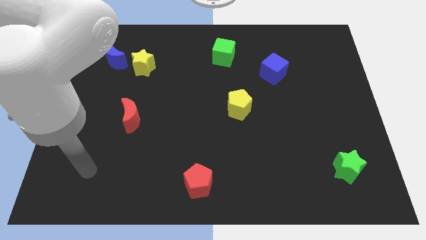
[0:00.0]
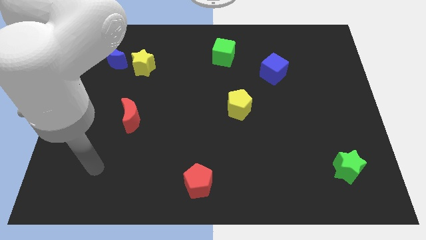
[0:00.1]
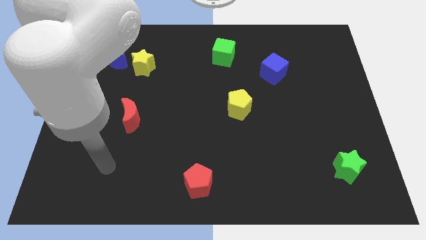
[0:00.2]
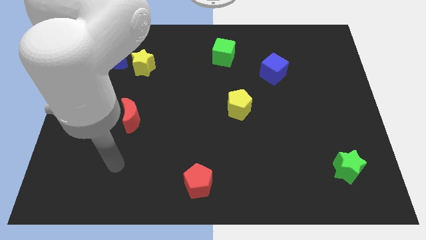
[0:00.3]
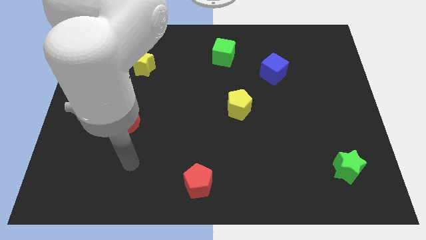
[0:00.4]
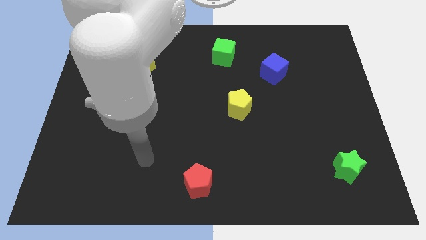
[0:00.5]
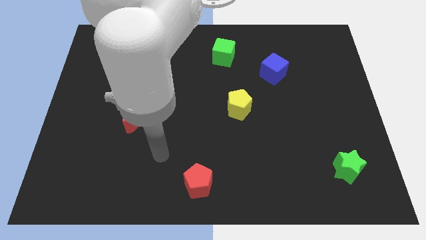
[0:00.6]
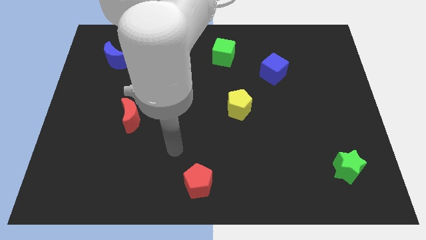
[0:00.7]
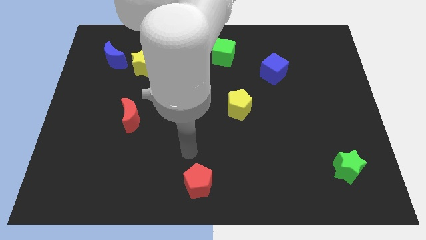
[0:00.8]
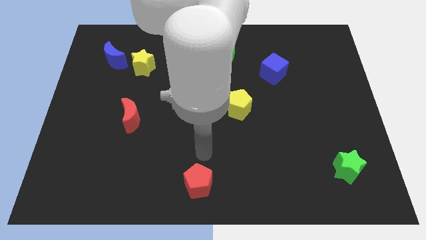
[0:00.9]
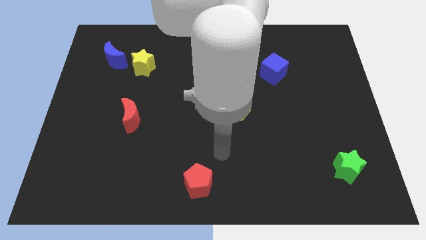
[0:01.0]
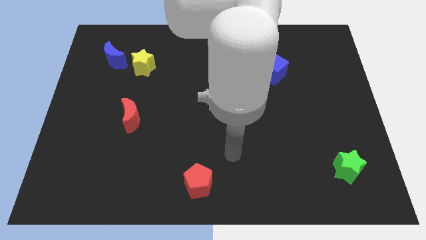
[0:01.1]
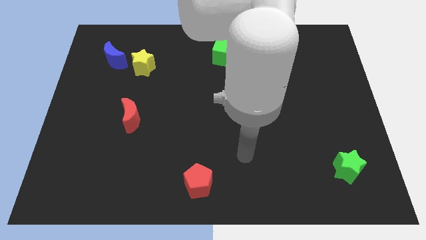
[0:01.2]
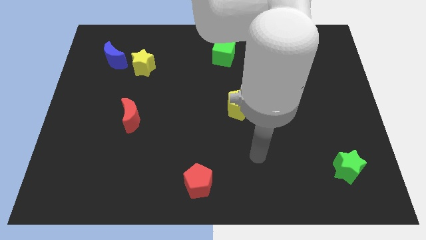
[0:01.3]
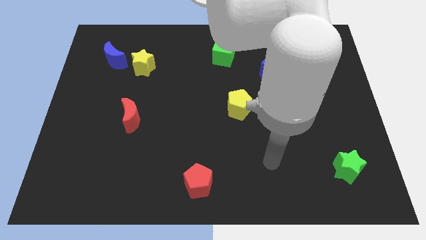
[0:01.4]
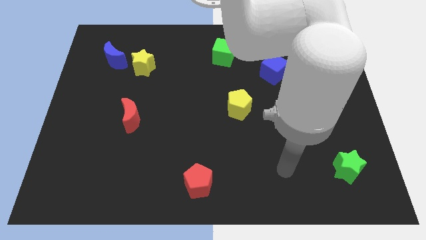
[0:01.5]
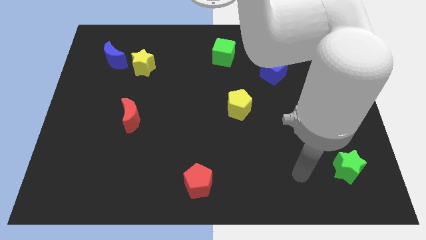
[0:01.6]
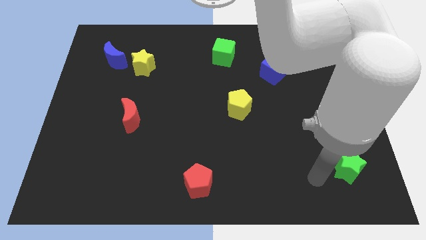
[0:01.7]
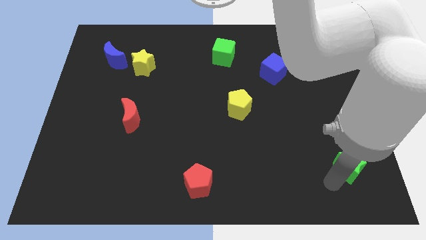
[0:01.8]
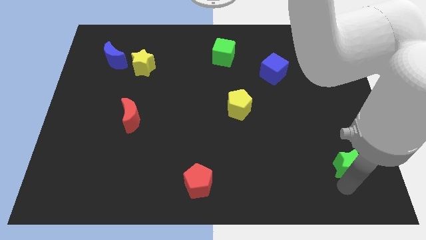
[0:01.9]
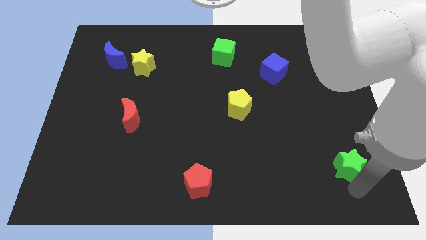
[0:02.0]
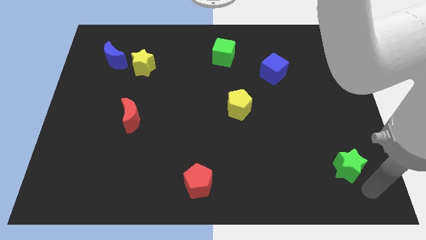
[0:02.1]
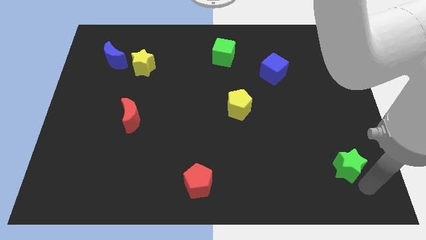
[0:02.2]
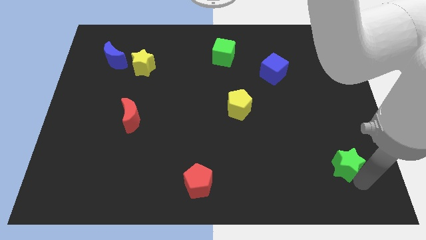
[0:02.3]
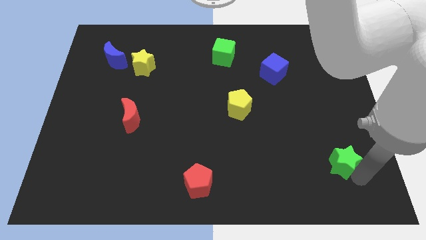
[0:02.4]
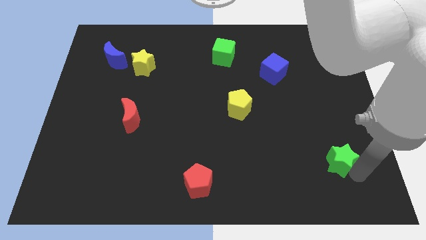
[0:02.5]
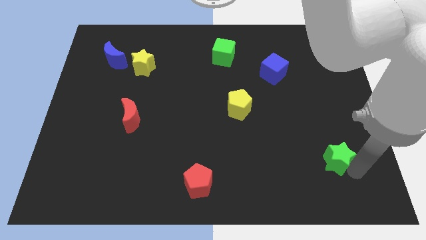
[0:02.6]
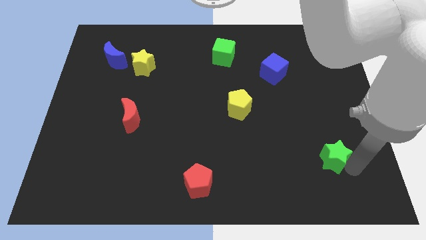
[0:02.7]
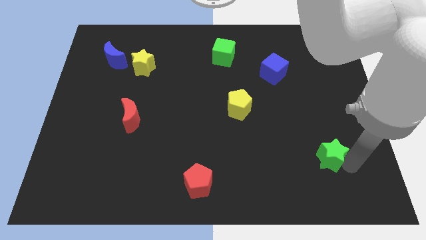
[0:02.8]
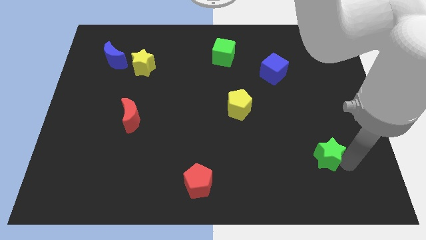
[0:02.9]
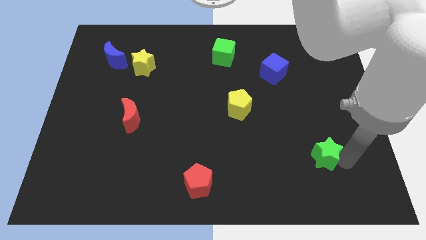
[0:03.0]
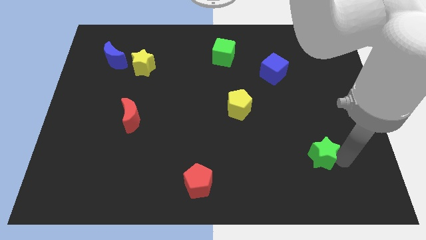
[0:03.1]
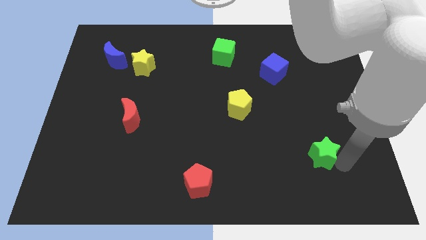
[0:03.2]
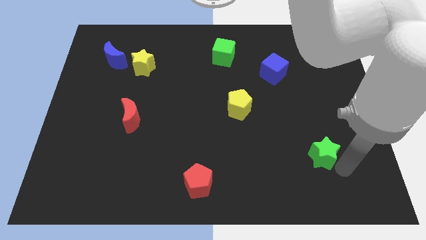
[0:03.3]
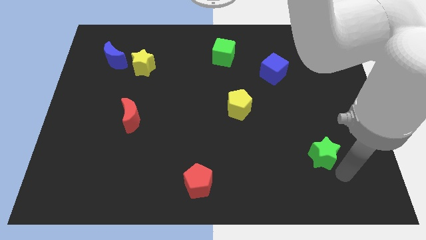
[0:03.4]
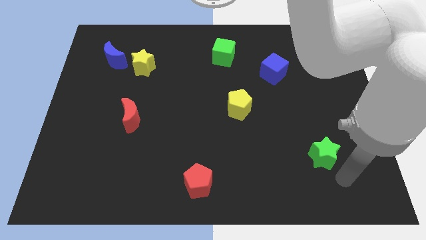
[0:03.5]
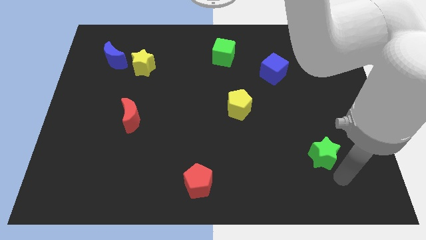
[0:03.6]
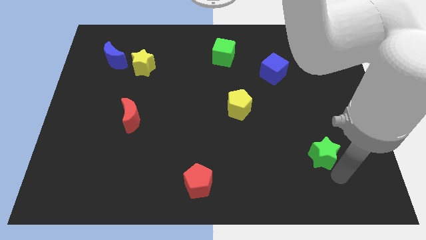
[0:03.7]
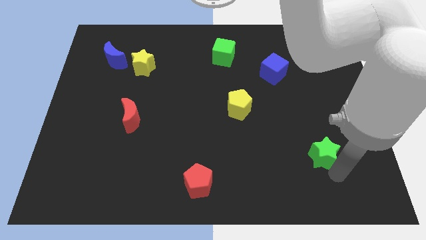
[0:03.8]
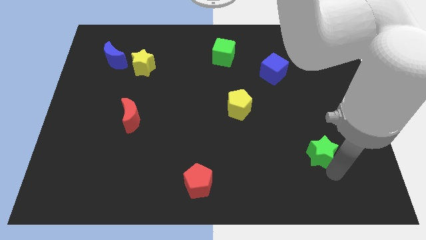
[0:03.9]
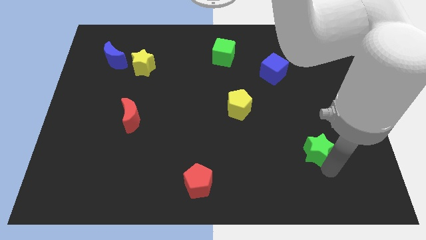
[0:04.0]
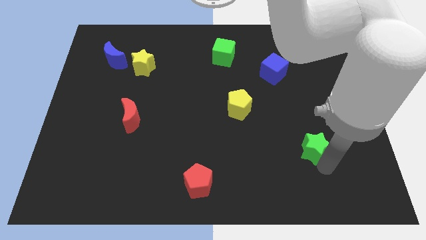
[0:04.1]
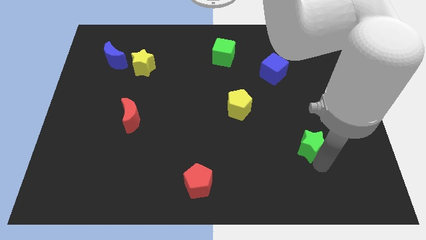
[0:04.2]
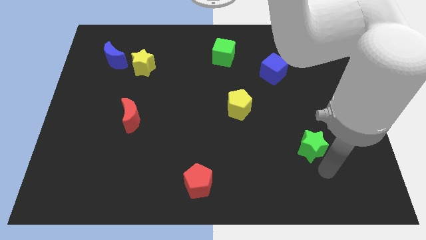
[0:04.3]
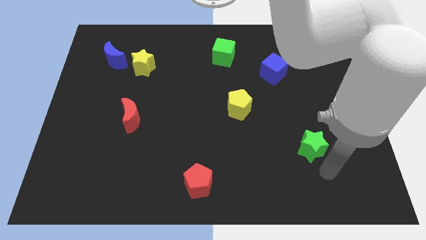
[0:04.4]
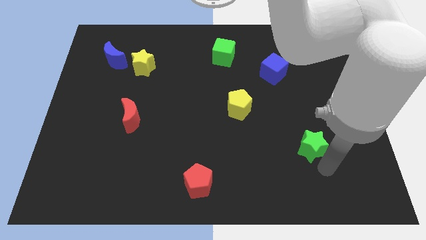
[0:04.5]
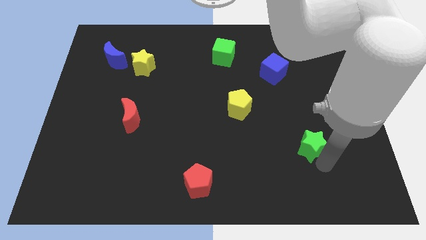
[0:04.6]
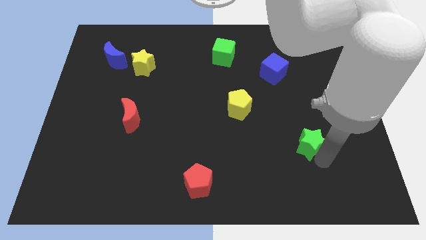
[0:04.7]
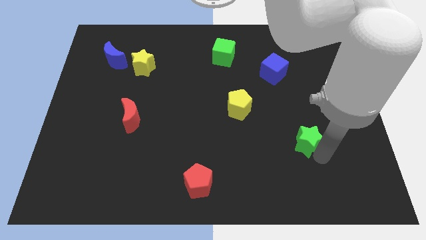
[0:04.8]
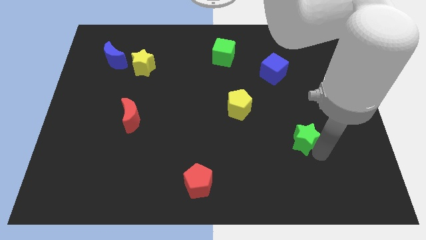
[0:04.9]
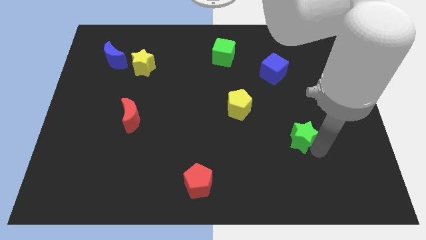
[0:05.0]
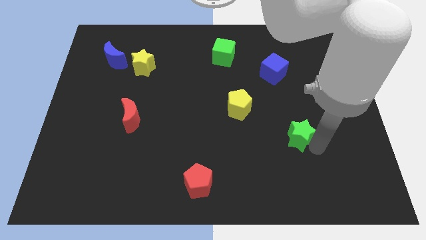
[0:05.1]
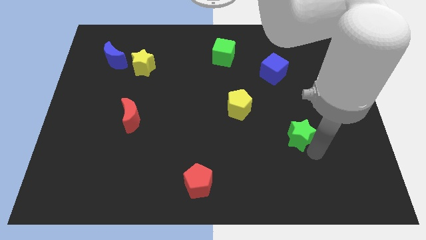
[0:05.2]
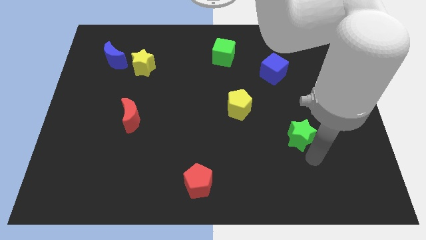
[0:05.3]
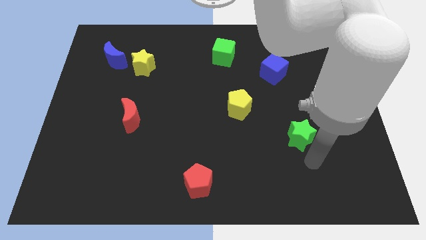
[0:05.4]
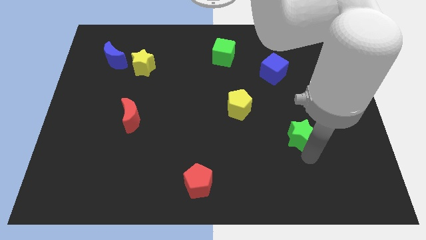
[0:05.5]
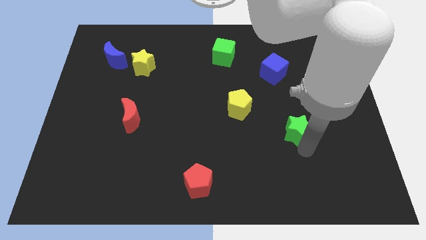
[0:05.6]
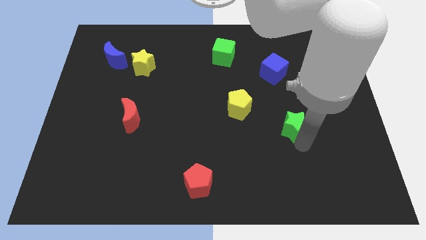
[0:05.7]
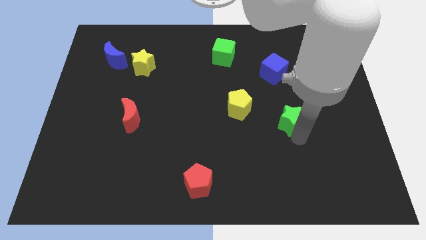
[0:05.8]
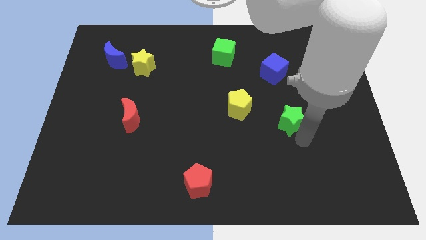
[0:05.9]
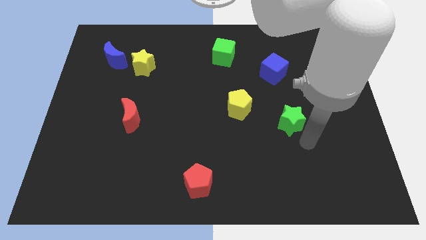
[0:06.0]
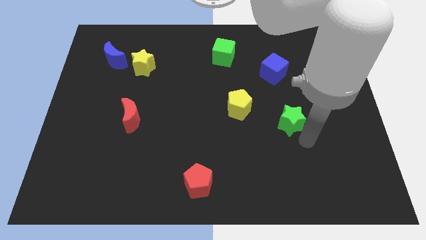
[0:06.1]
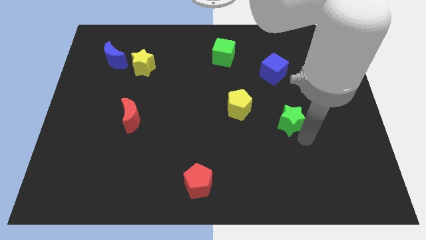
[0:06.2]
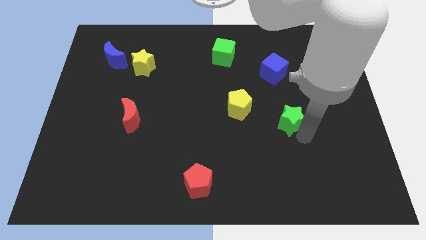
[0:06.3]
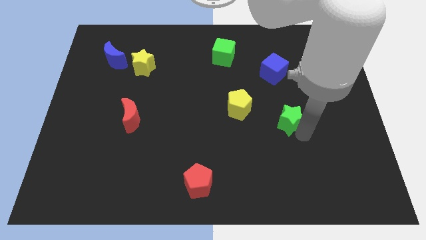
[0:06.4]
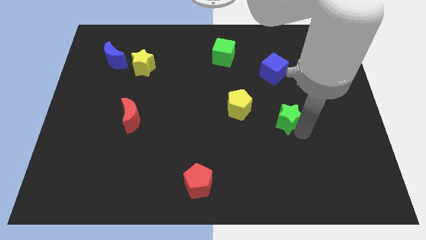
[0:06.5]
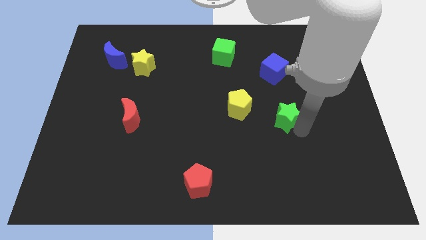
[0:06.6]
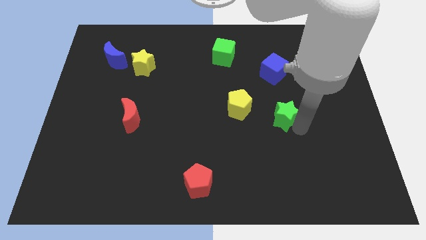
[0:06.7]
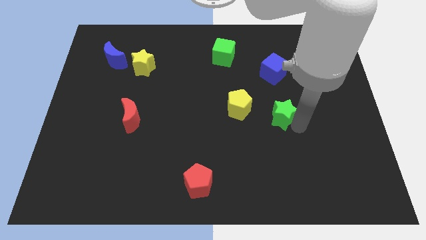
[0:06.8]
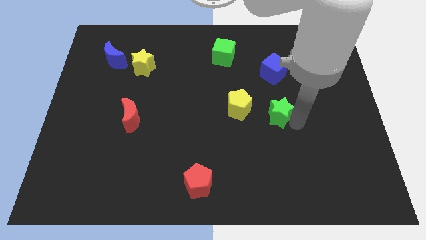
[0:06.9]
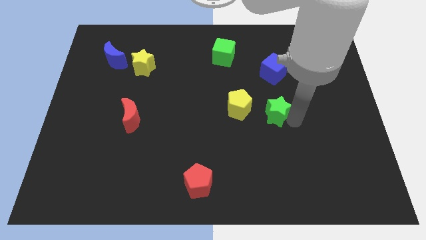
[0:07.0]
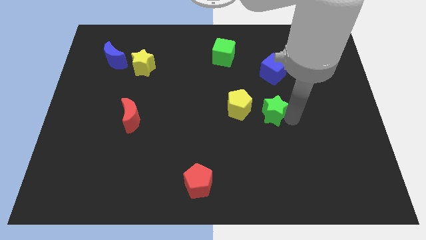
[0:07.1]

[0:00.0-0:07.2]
slide the green star diagonally upwards and left

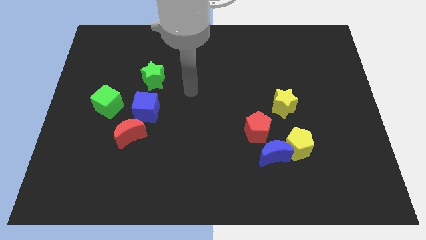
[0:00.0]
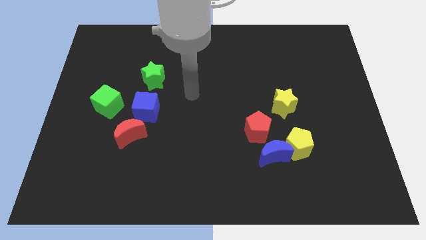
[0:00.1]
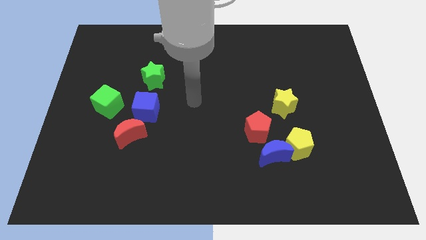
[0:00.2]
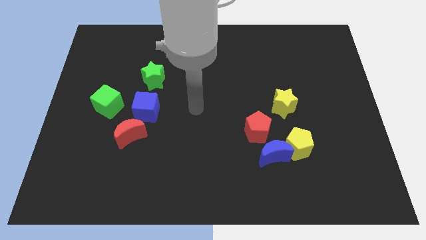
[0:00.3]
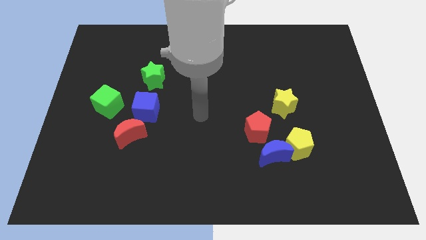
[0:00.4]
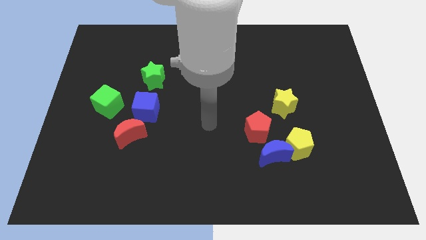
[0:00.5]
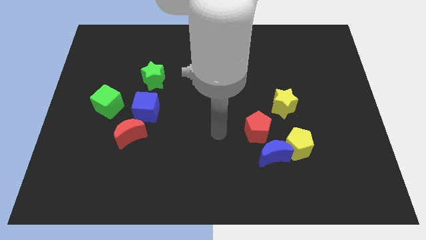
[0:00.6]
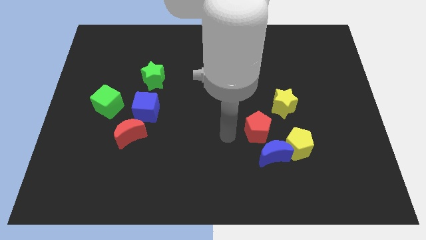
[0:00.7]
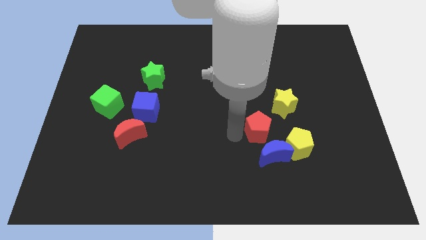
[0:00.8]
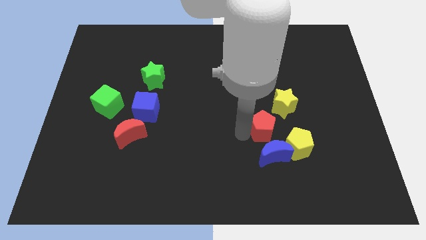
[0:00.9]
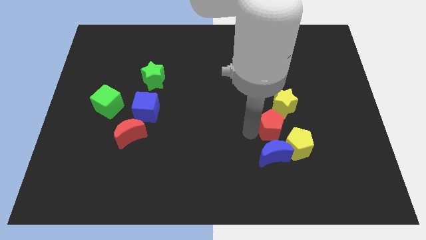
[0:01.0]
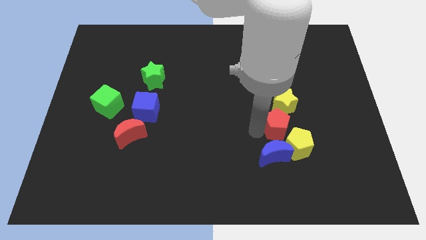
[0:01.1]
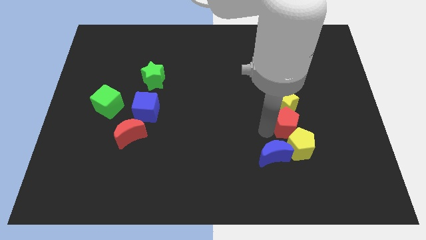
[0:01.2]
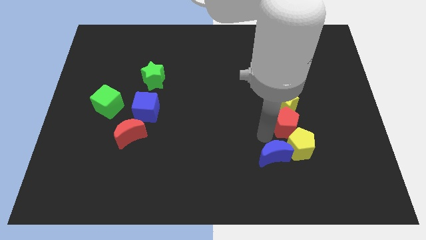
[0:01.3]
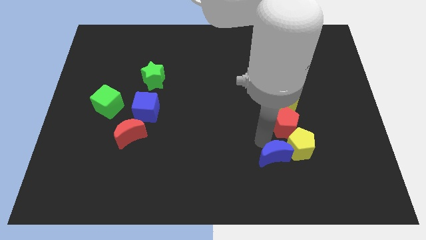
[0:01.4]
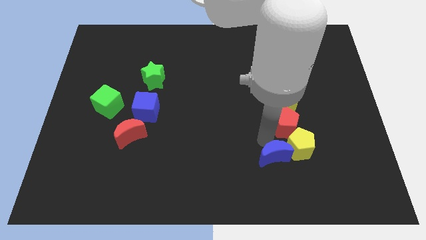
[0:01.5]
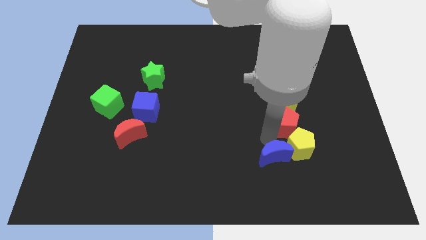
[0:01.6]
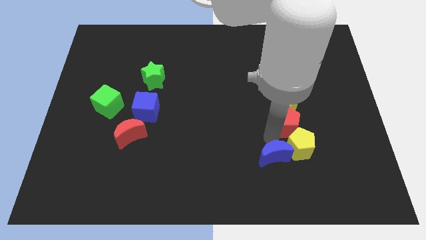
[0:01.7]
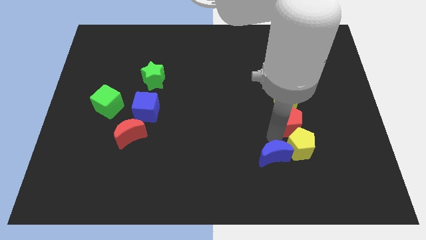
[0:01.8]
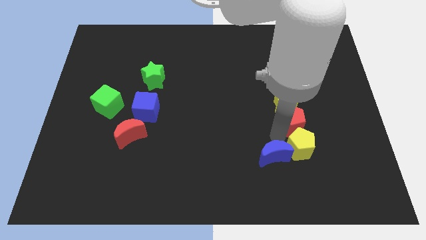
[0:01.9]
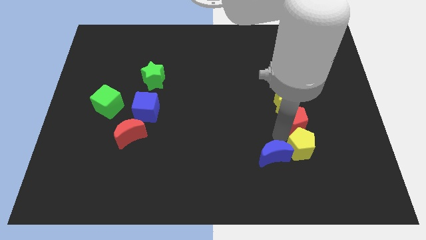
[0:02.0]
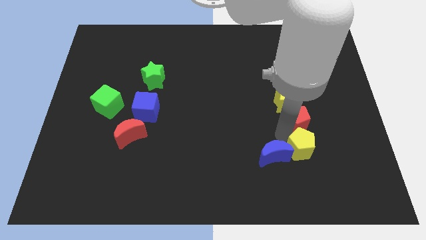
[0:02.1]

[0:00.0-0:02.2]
slide the red pentagon a bit upwards and then to the right
